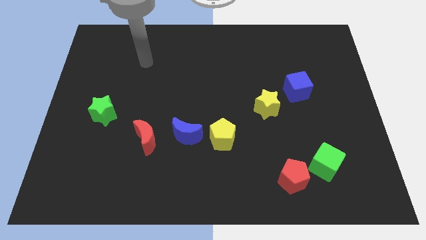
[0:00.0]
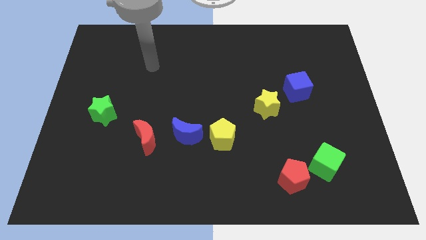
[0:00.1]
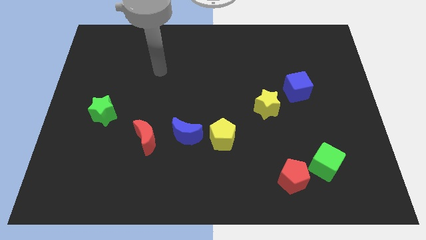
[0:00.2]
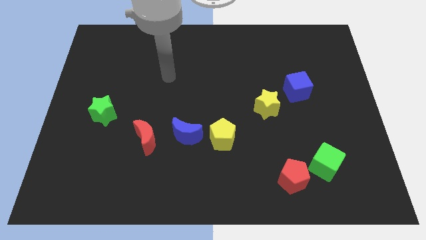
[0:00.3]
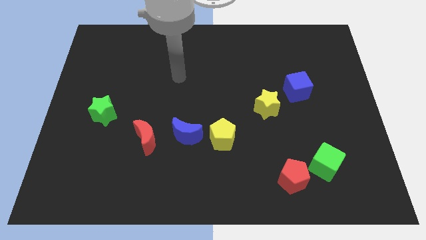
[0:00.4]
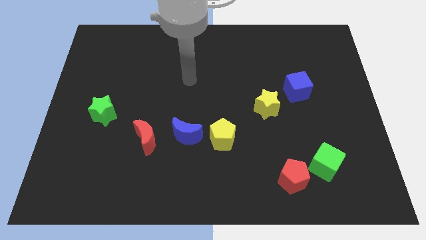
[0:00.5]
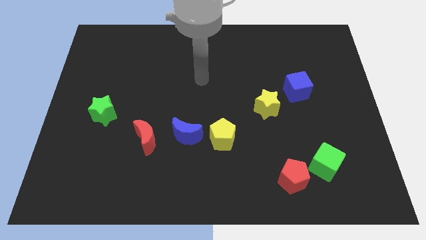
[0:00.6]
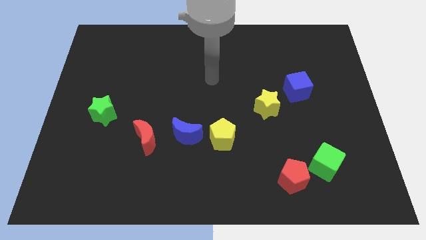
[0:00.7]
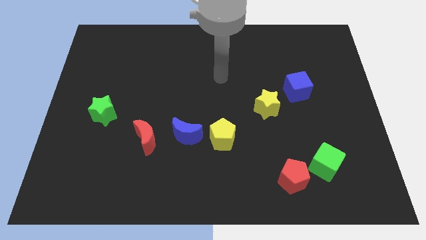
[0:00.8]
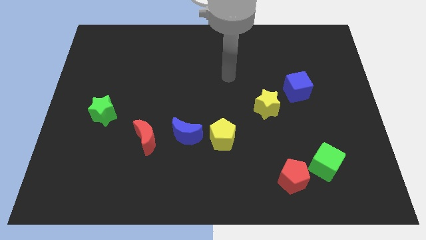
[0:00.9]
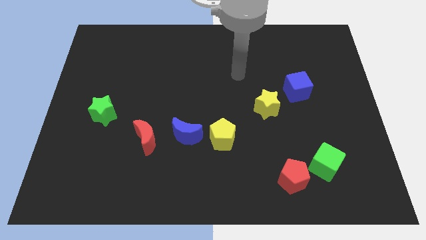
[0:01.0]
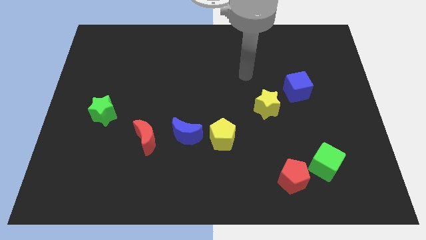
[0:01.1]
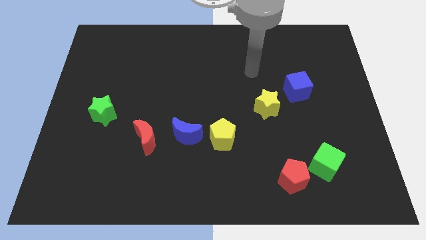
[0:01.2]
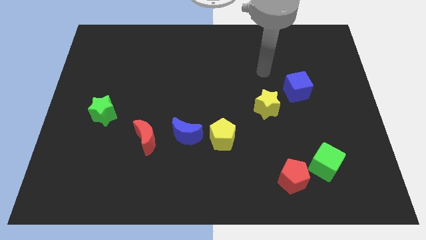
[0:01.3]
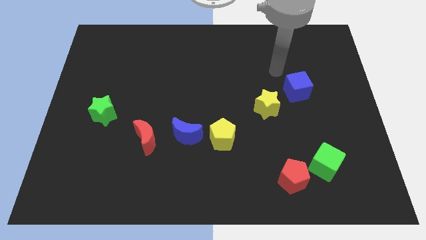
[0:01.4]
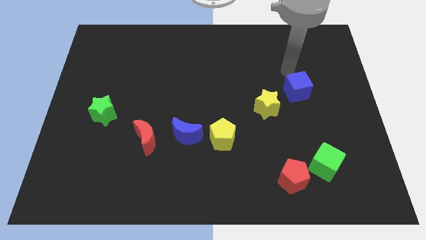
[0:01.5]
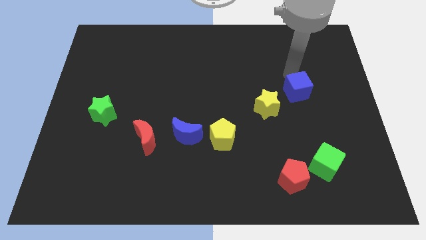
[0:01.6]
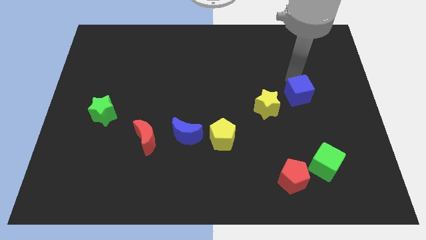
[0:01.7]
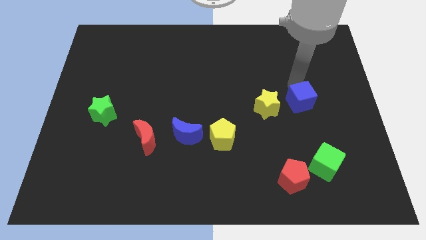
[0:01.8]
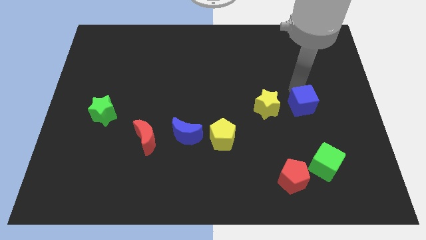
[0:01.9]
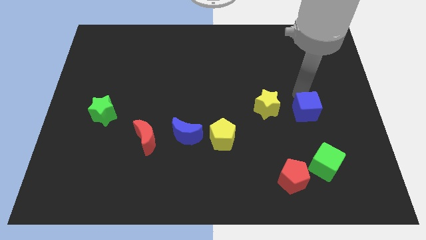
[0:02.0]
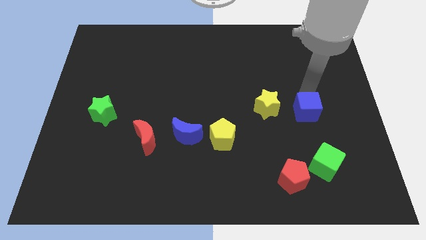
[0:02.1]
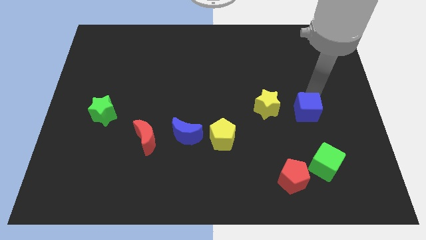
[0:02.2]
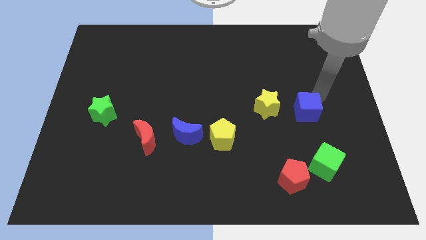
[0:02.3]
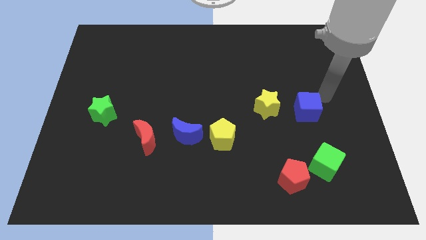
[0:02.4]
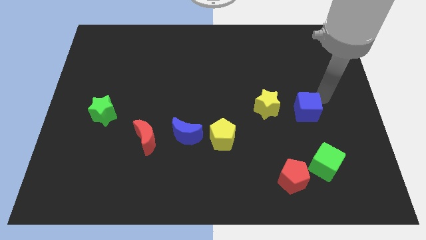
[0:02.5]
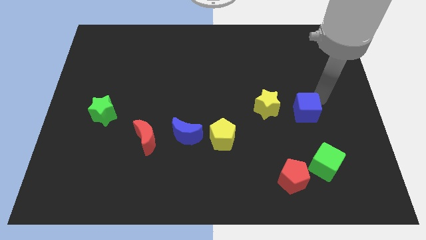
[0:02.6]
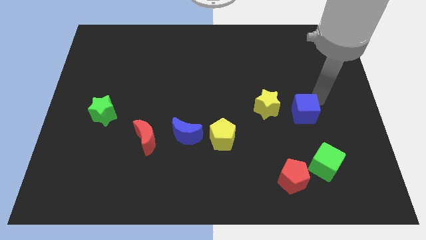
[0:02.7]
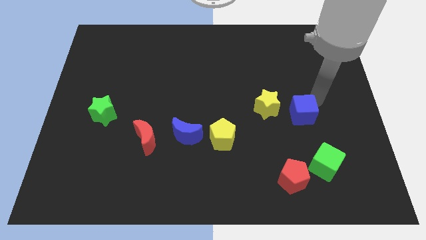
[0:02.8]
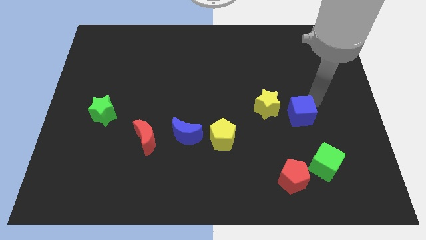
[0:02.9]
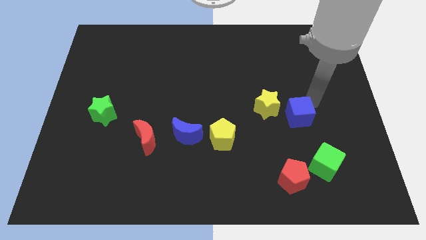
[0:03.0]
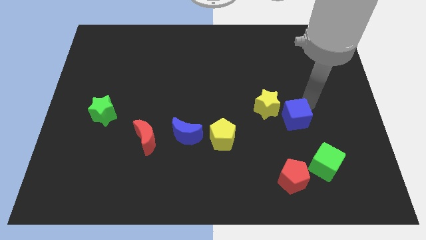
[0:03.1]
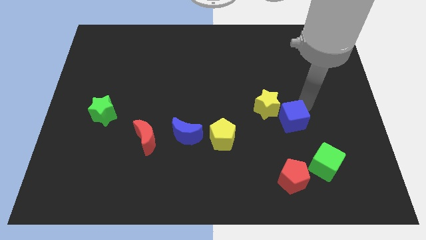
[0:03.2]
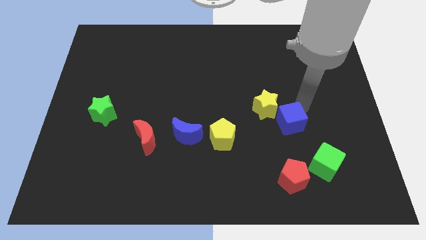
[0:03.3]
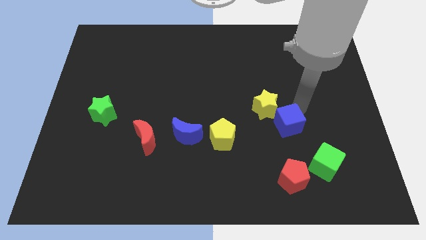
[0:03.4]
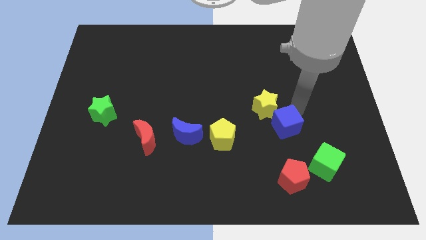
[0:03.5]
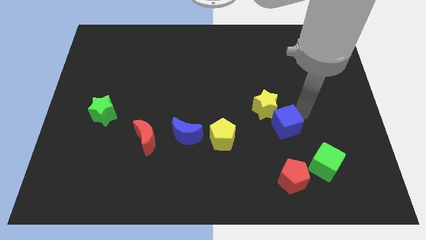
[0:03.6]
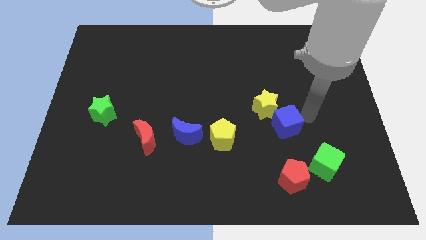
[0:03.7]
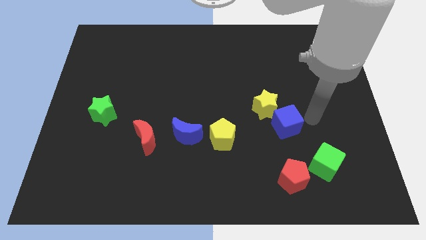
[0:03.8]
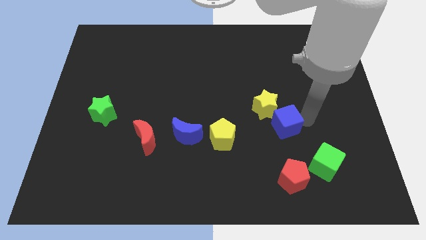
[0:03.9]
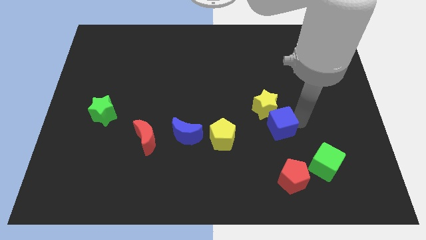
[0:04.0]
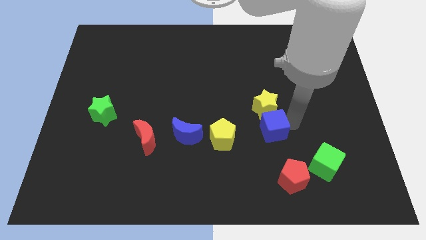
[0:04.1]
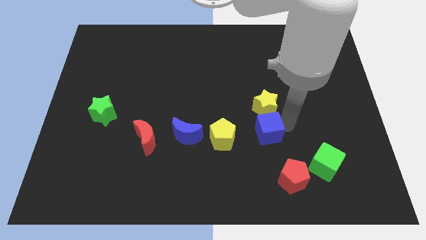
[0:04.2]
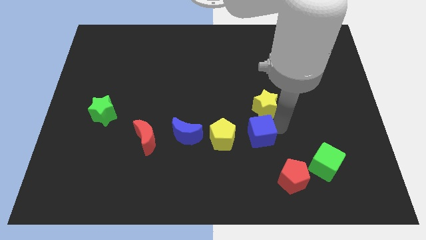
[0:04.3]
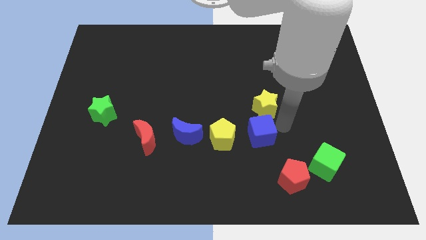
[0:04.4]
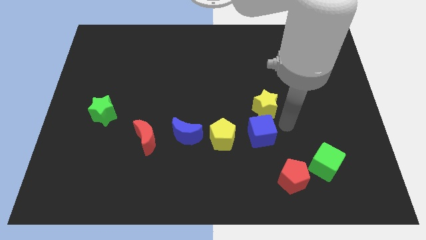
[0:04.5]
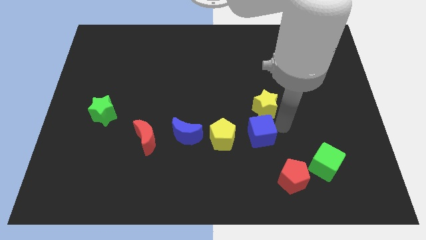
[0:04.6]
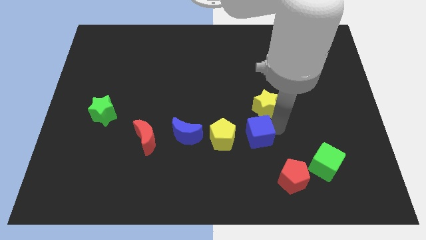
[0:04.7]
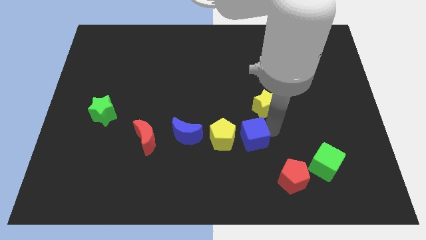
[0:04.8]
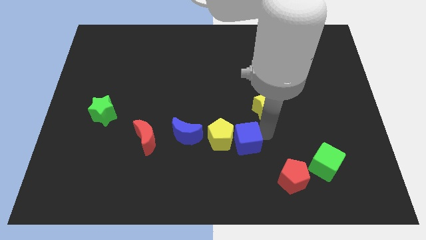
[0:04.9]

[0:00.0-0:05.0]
move the blue cube close to the yellow pentagon

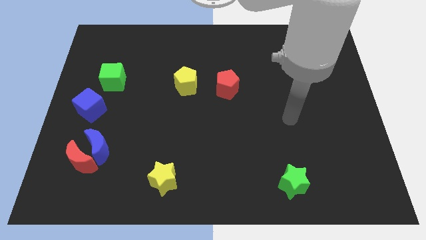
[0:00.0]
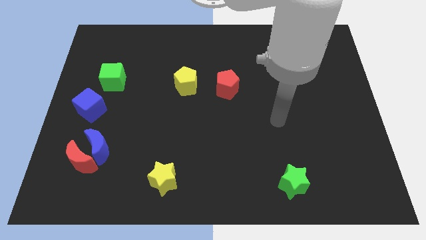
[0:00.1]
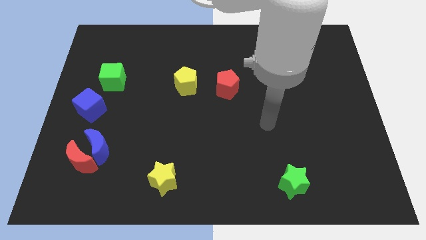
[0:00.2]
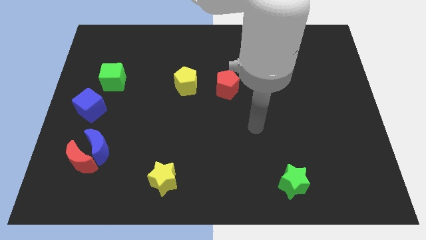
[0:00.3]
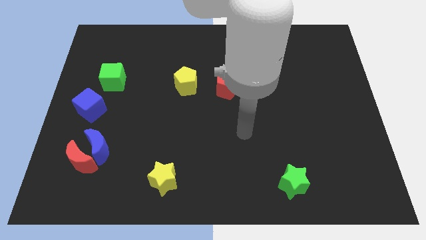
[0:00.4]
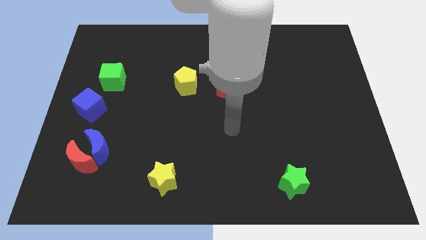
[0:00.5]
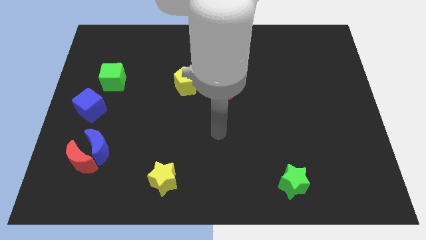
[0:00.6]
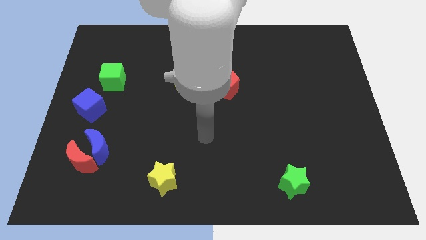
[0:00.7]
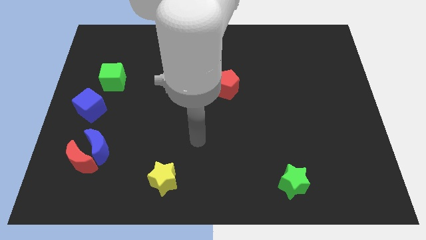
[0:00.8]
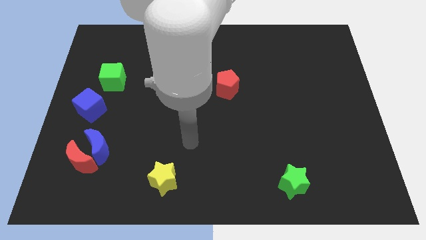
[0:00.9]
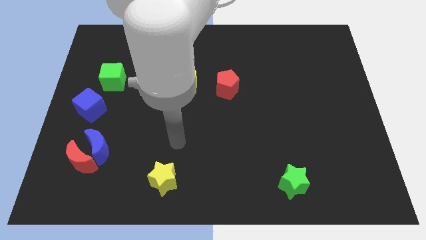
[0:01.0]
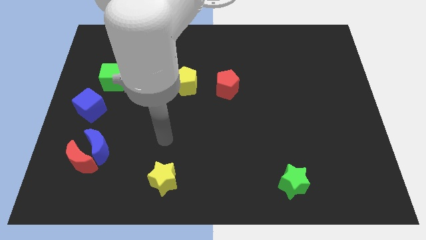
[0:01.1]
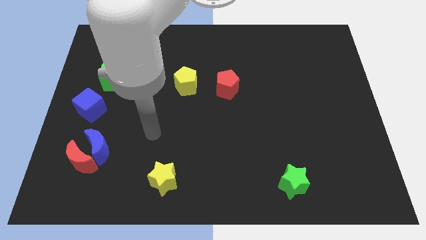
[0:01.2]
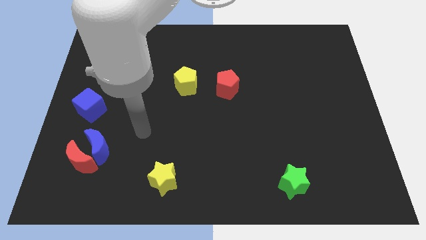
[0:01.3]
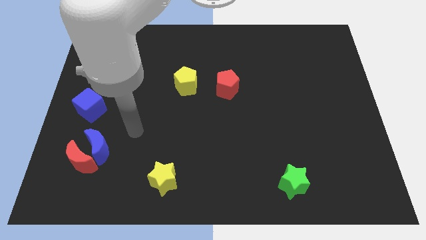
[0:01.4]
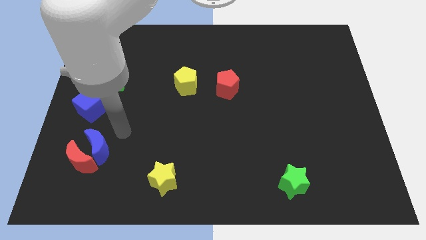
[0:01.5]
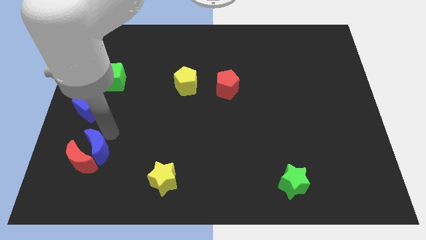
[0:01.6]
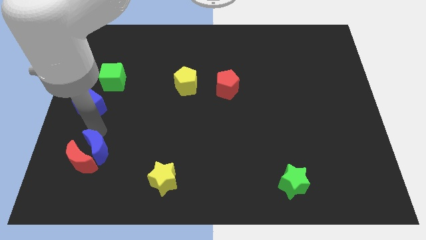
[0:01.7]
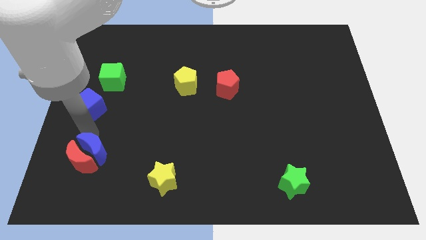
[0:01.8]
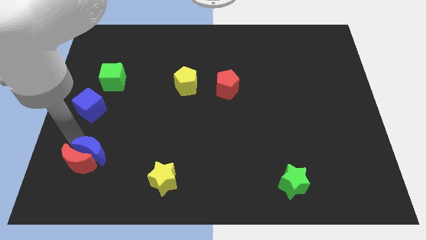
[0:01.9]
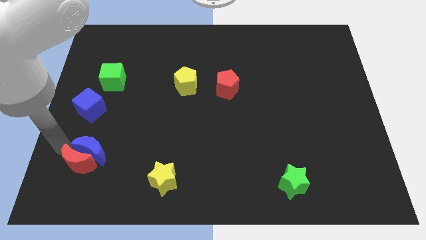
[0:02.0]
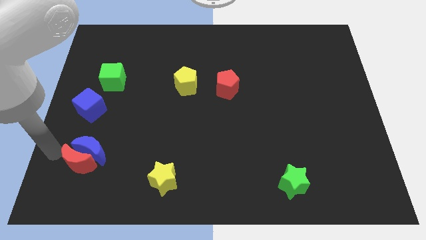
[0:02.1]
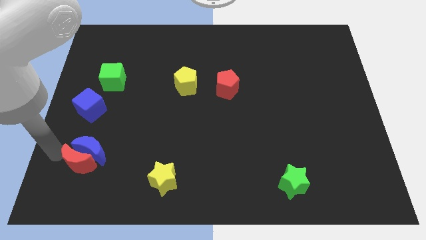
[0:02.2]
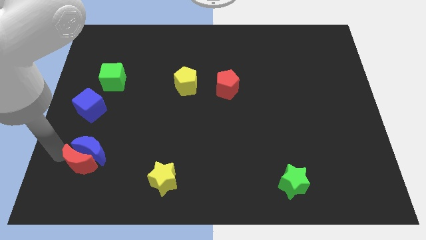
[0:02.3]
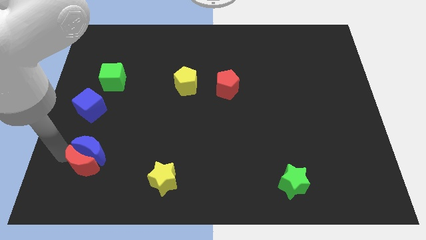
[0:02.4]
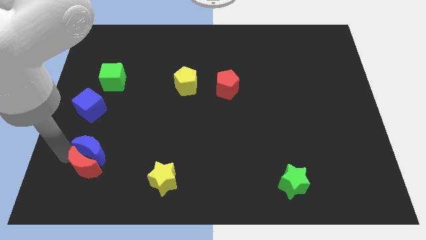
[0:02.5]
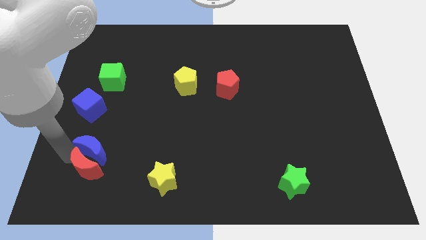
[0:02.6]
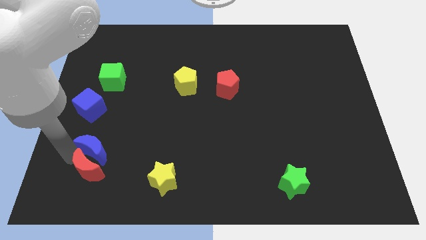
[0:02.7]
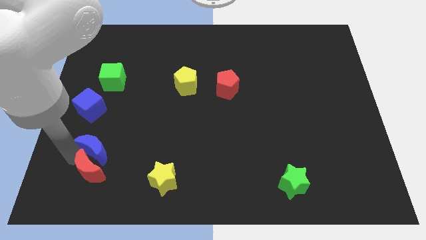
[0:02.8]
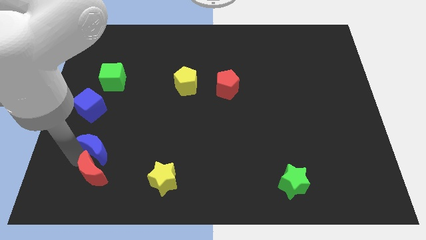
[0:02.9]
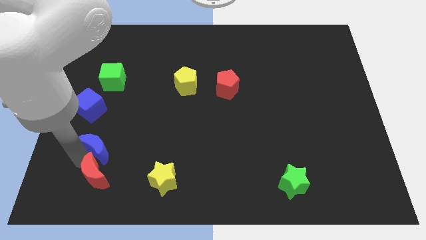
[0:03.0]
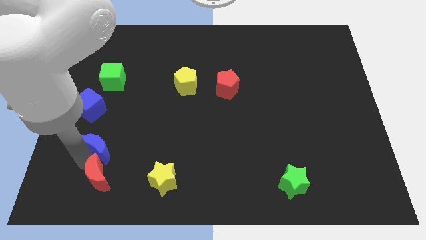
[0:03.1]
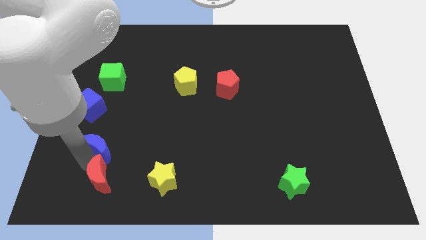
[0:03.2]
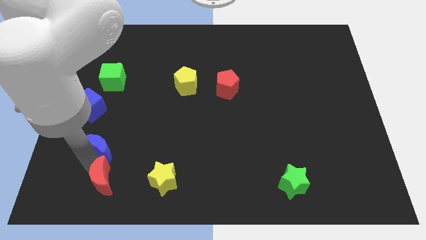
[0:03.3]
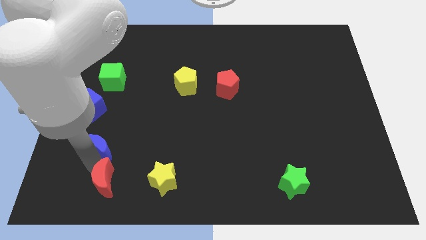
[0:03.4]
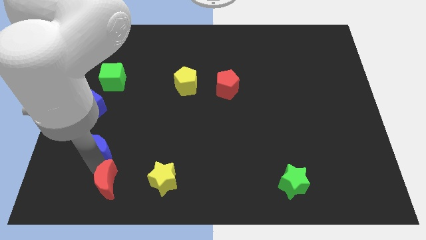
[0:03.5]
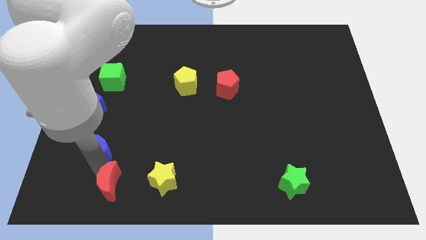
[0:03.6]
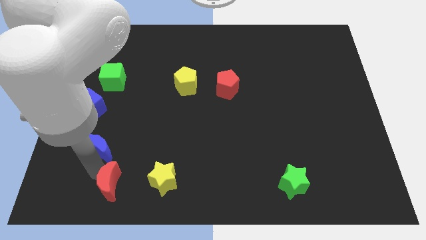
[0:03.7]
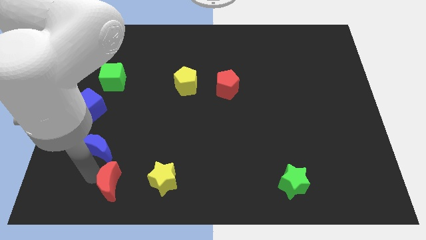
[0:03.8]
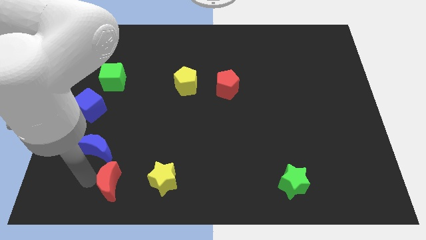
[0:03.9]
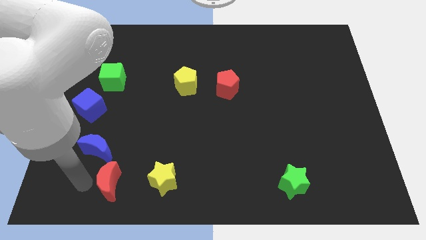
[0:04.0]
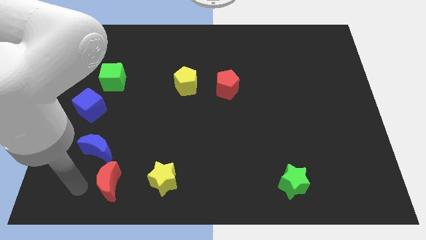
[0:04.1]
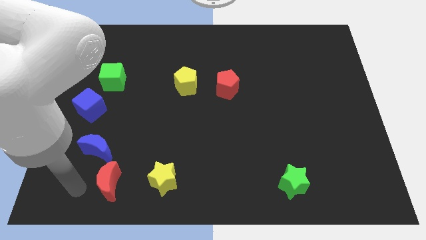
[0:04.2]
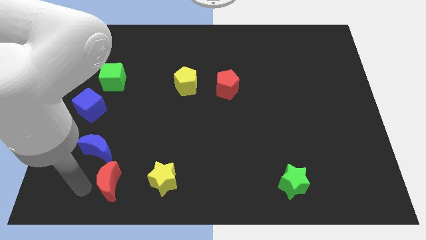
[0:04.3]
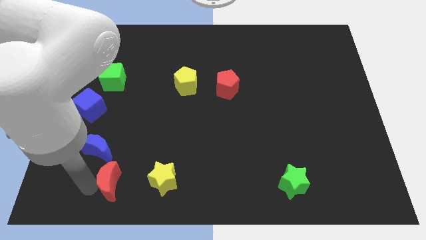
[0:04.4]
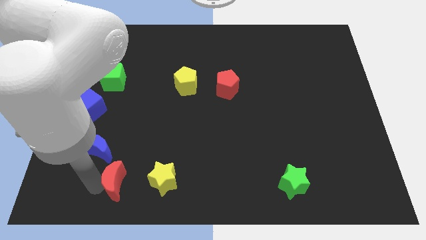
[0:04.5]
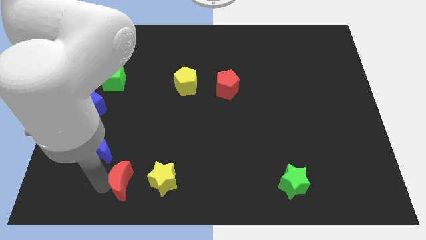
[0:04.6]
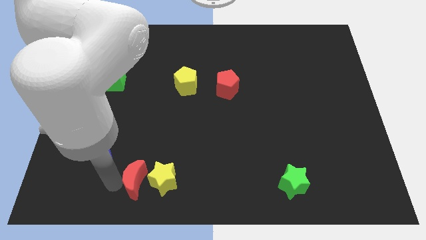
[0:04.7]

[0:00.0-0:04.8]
slide the red moon next to the yellow star
